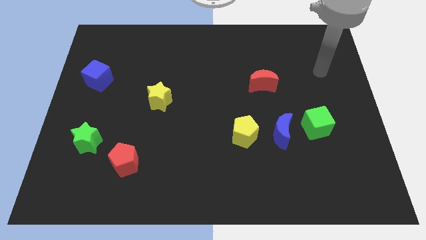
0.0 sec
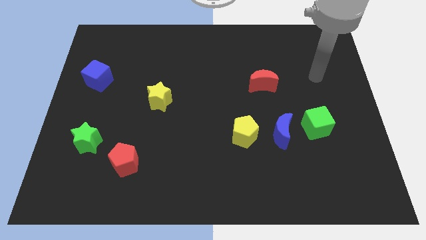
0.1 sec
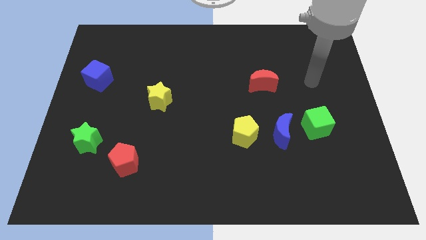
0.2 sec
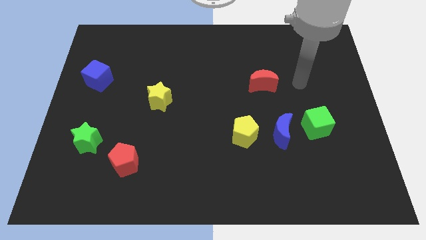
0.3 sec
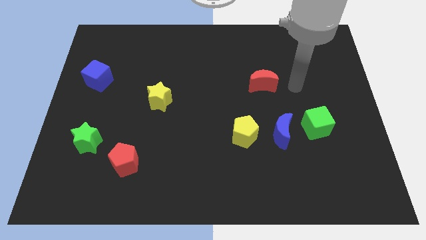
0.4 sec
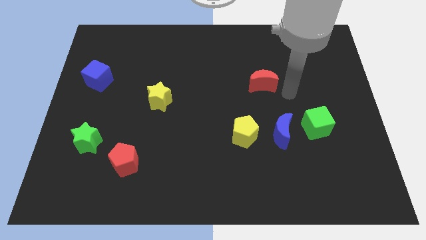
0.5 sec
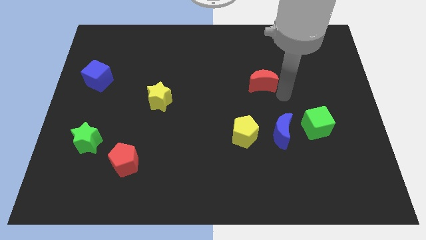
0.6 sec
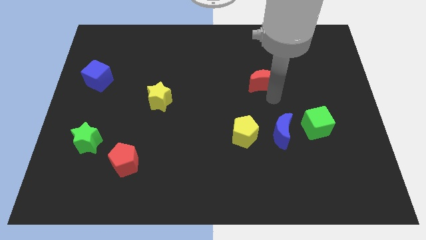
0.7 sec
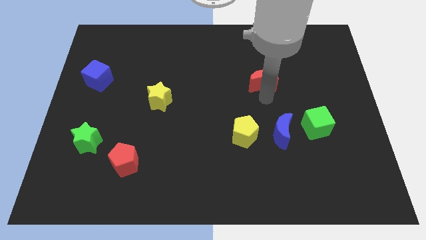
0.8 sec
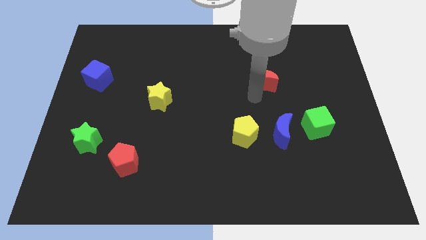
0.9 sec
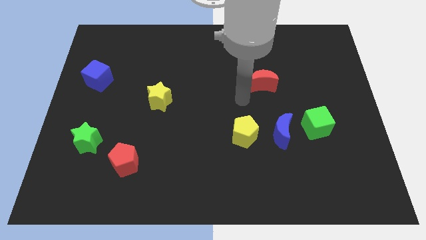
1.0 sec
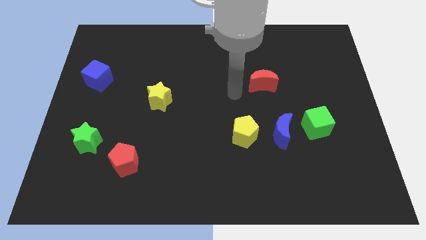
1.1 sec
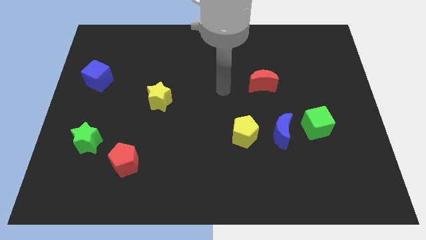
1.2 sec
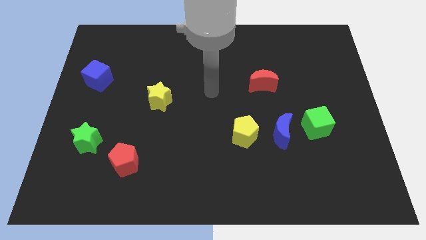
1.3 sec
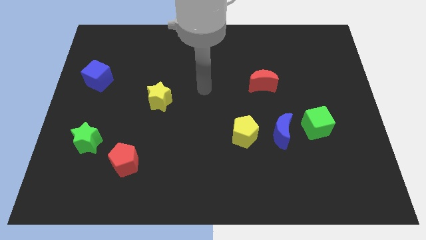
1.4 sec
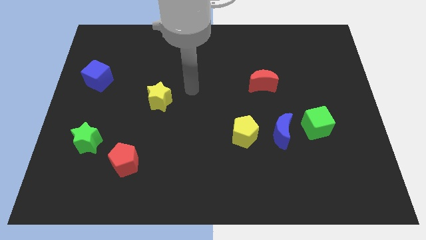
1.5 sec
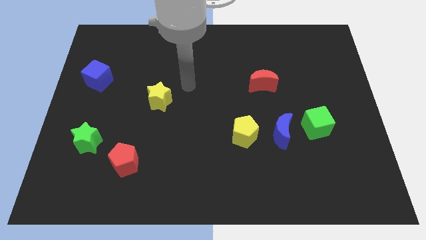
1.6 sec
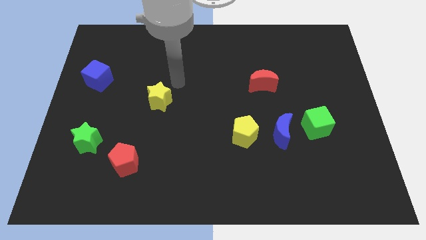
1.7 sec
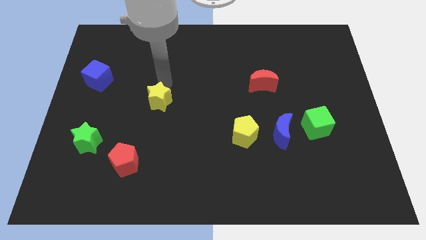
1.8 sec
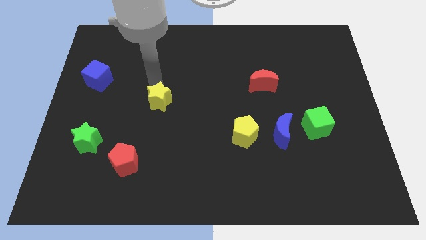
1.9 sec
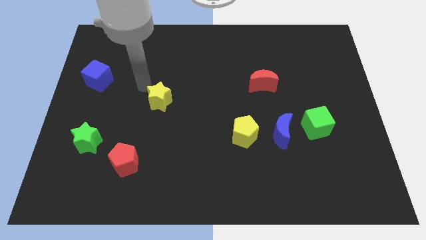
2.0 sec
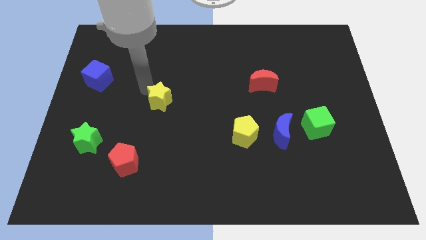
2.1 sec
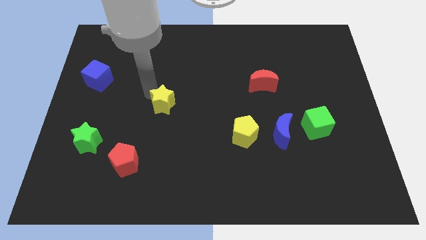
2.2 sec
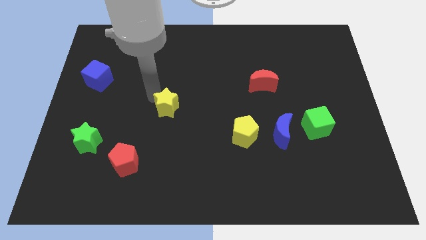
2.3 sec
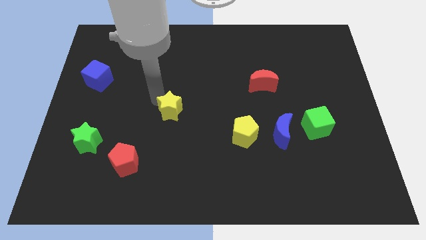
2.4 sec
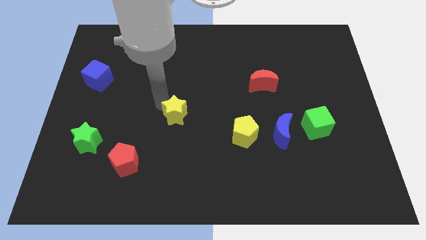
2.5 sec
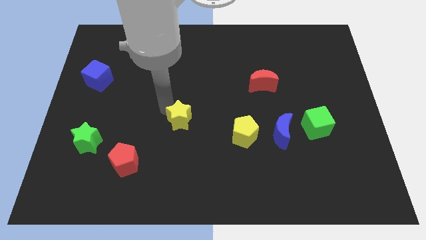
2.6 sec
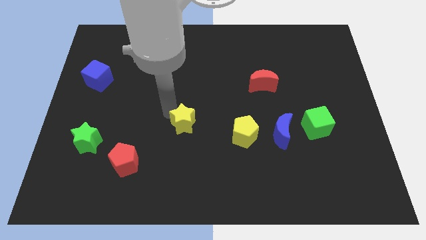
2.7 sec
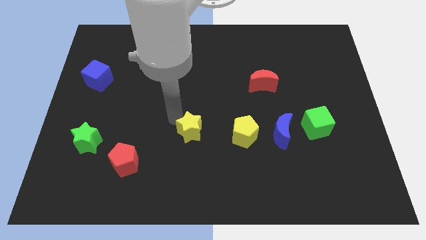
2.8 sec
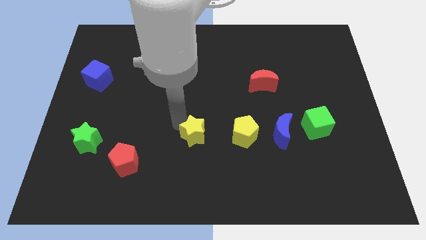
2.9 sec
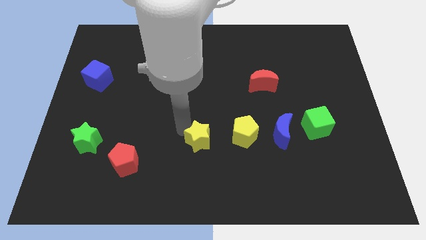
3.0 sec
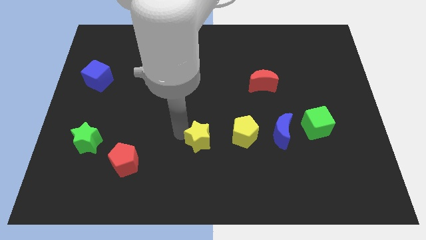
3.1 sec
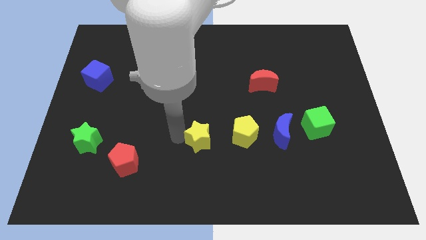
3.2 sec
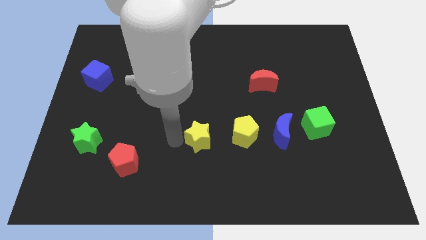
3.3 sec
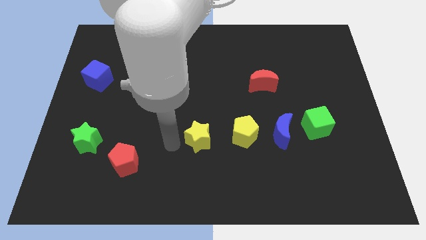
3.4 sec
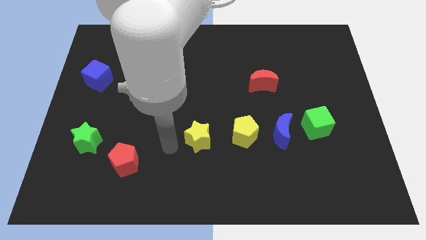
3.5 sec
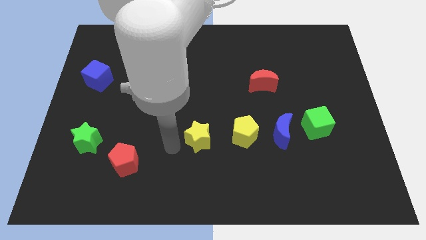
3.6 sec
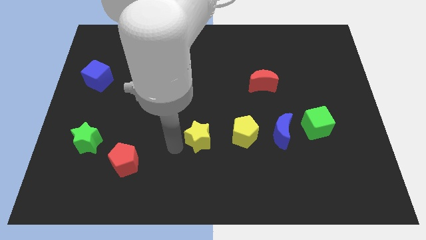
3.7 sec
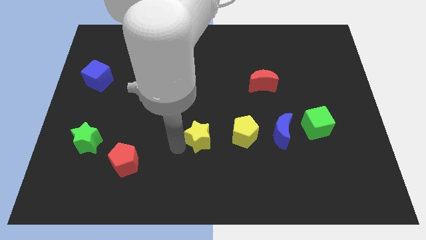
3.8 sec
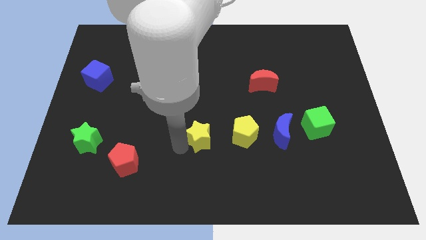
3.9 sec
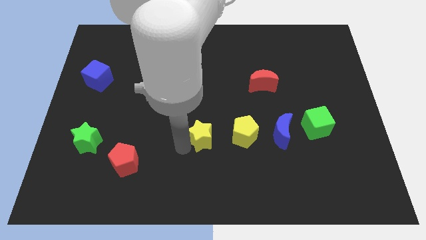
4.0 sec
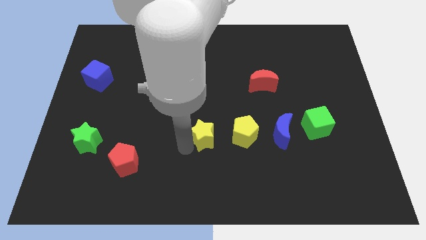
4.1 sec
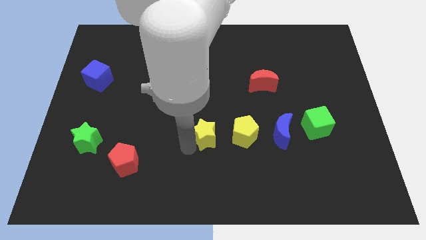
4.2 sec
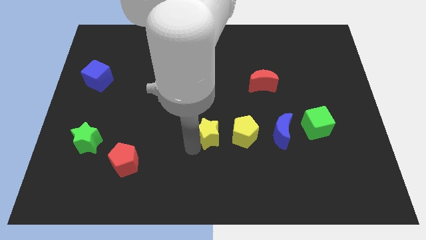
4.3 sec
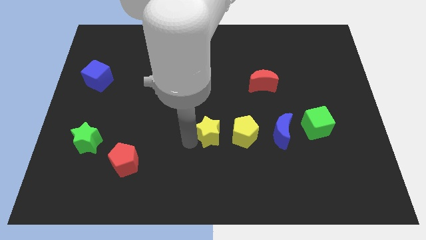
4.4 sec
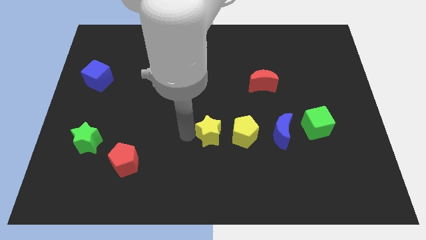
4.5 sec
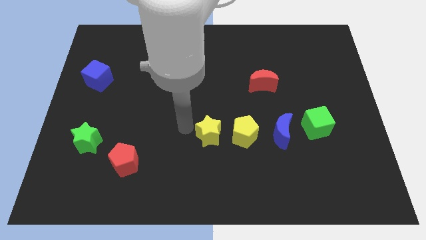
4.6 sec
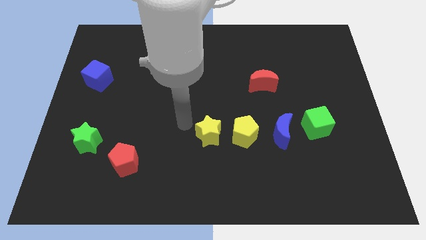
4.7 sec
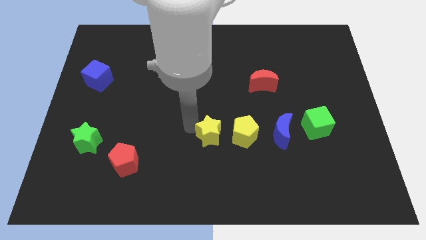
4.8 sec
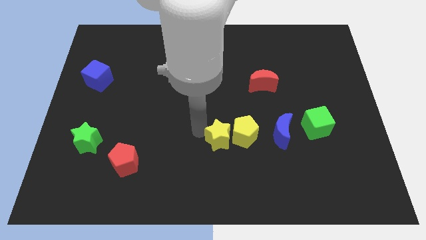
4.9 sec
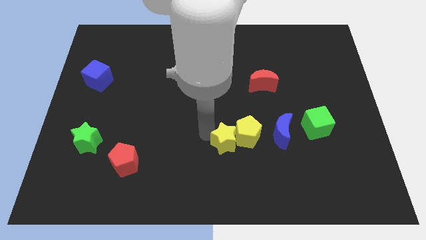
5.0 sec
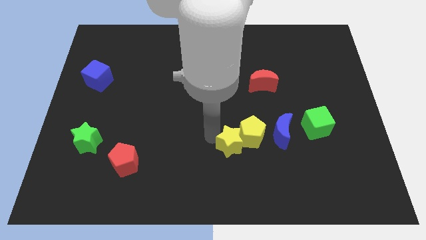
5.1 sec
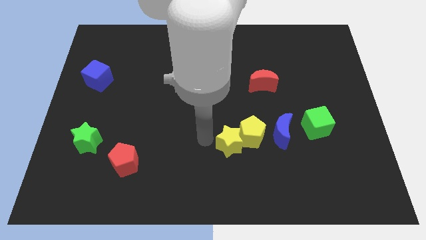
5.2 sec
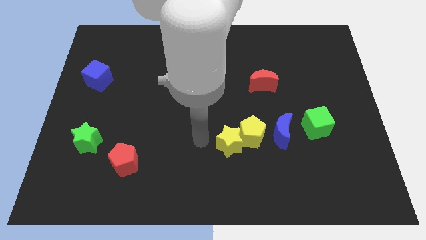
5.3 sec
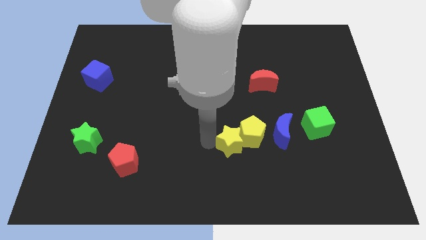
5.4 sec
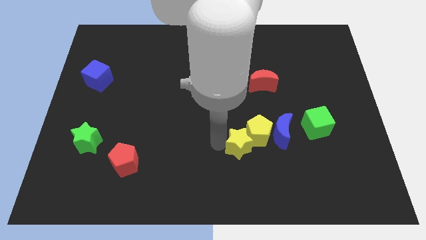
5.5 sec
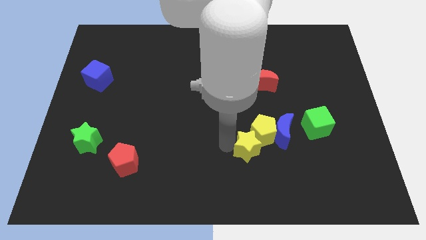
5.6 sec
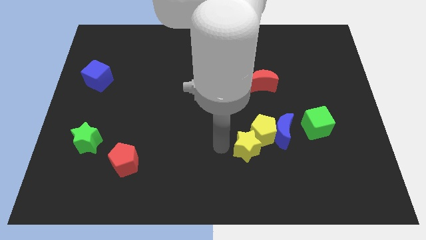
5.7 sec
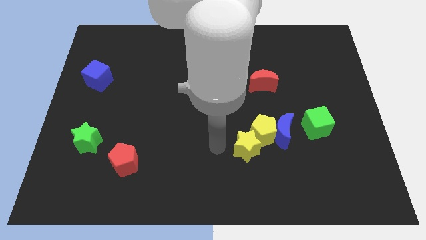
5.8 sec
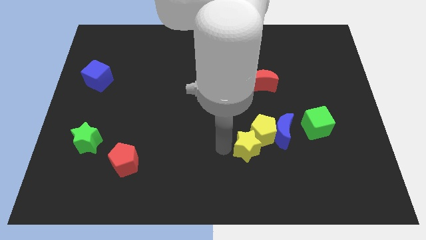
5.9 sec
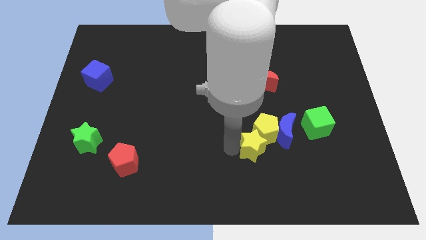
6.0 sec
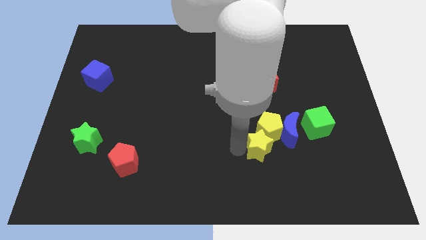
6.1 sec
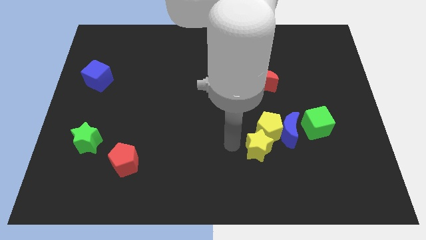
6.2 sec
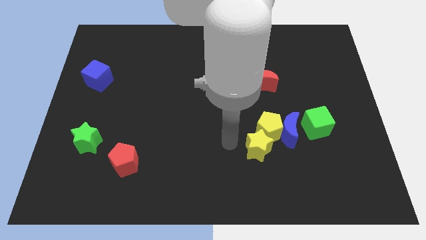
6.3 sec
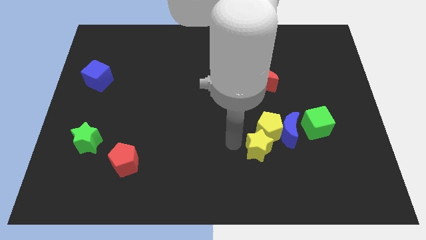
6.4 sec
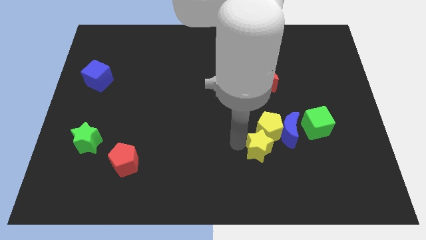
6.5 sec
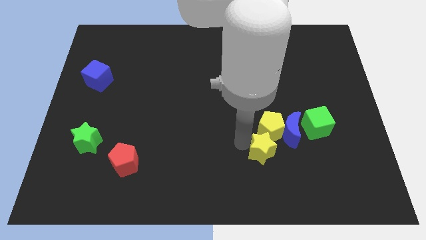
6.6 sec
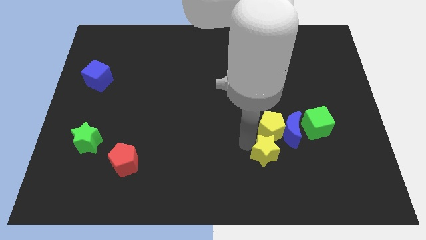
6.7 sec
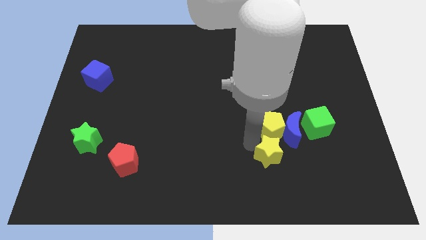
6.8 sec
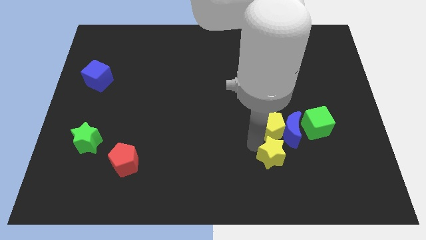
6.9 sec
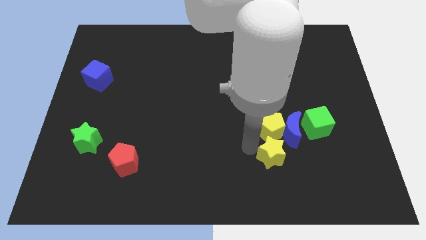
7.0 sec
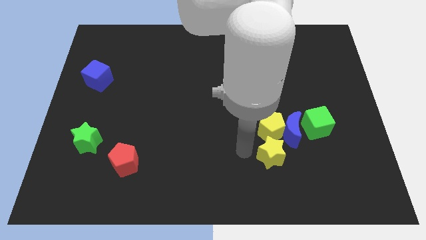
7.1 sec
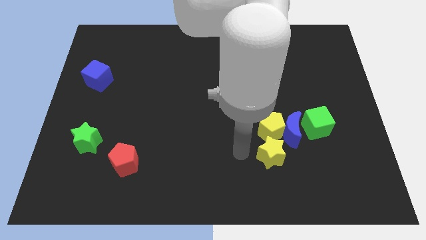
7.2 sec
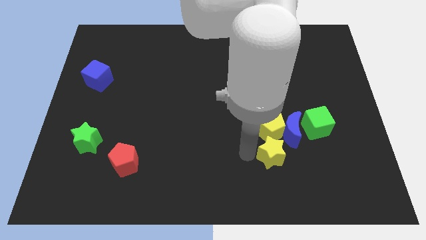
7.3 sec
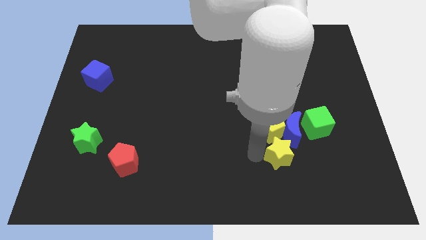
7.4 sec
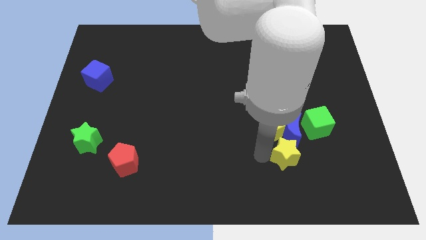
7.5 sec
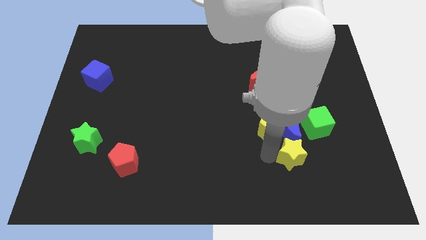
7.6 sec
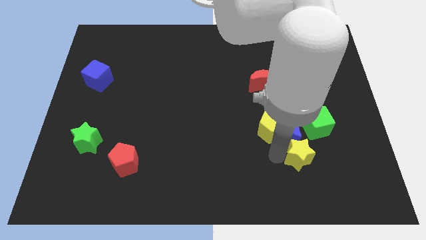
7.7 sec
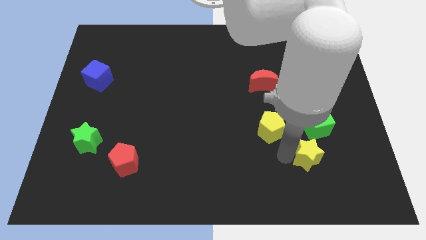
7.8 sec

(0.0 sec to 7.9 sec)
move the yellow star to the bottom of the green cube
